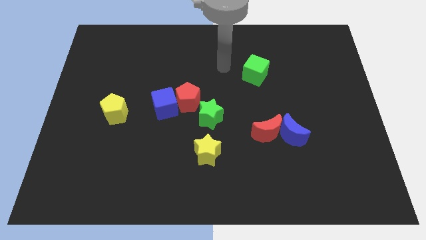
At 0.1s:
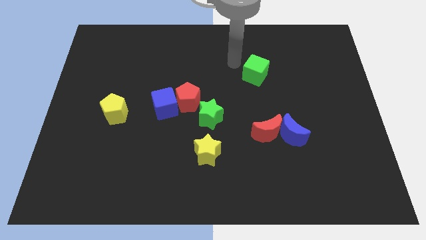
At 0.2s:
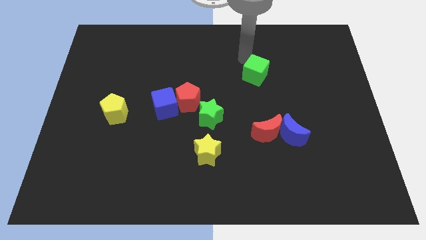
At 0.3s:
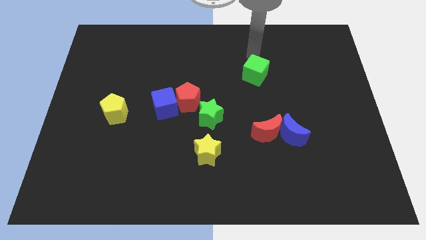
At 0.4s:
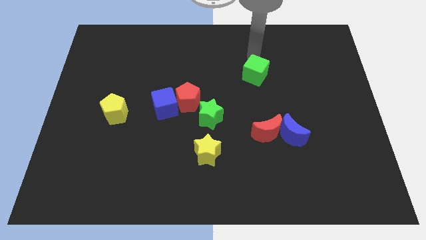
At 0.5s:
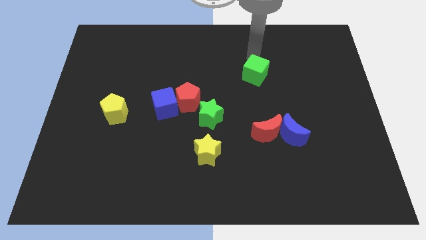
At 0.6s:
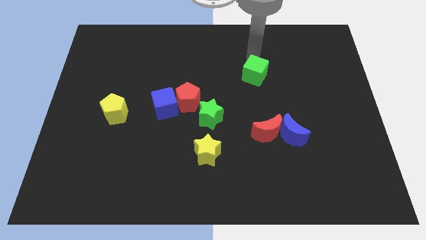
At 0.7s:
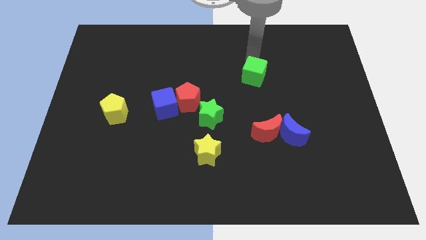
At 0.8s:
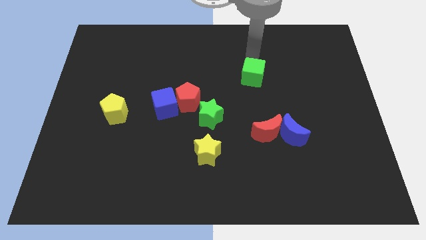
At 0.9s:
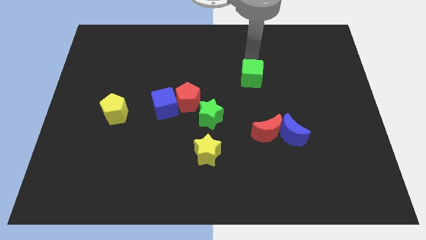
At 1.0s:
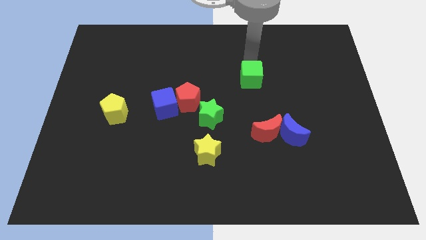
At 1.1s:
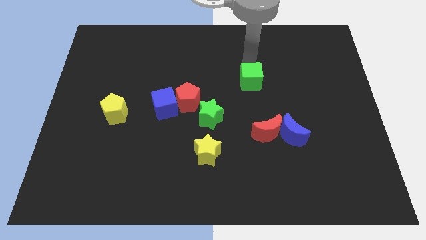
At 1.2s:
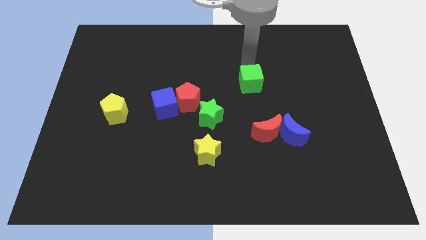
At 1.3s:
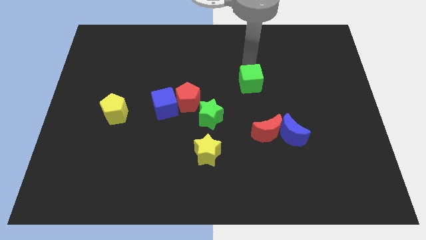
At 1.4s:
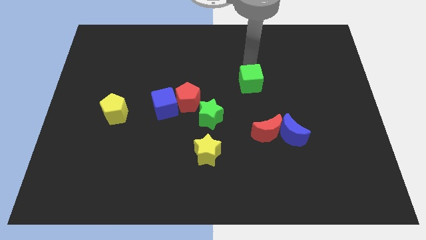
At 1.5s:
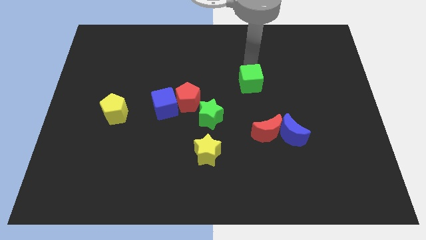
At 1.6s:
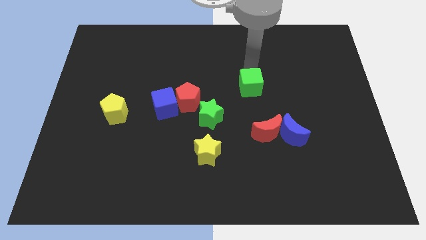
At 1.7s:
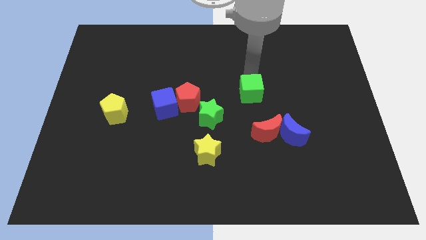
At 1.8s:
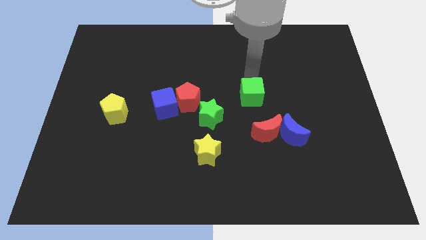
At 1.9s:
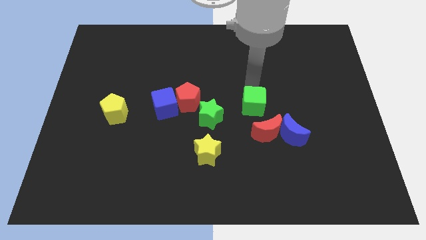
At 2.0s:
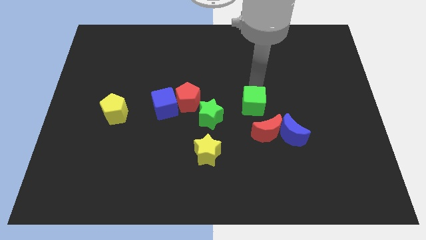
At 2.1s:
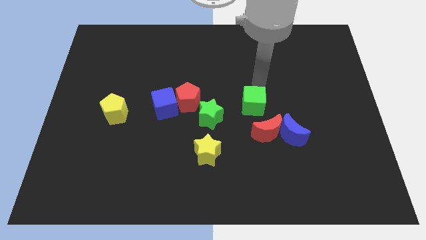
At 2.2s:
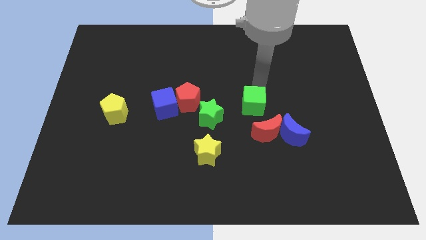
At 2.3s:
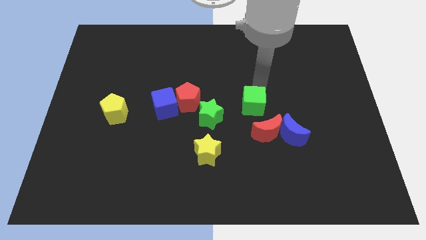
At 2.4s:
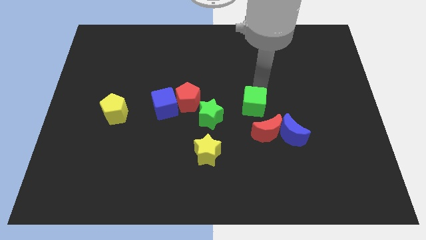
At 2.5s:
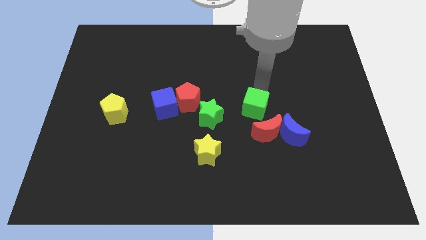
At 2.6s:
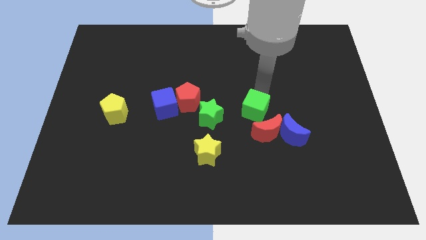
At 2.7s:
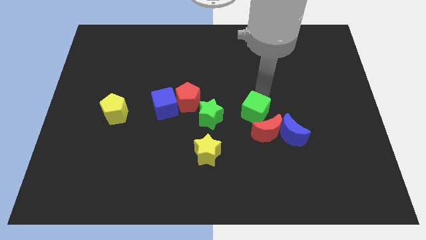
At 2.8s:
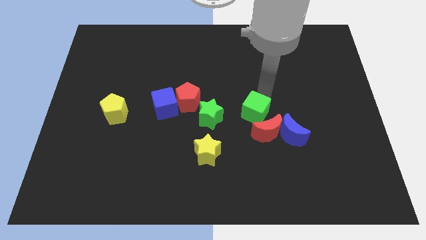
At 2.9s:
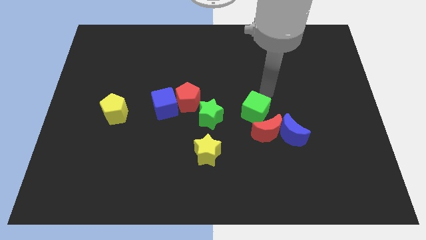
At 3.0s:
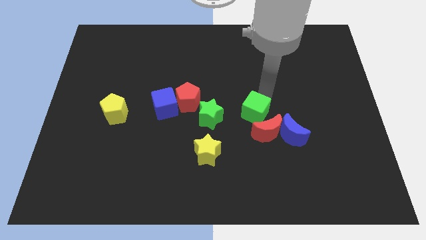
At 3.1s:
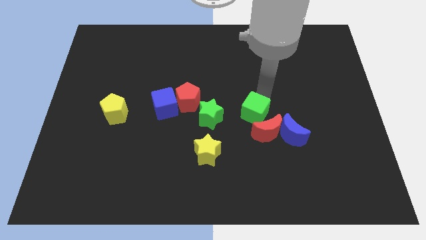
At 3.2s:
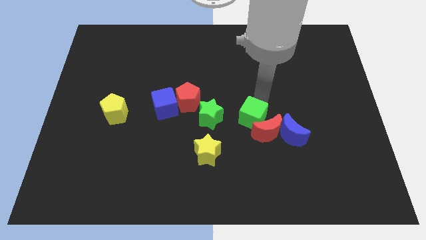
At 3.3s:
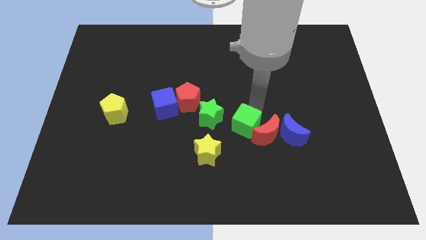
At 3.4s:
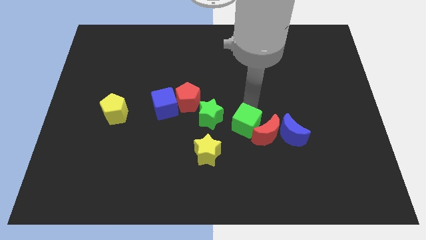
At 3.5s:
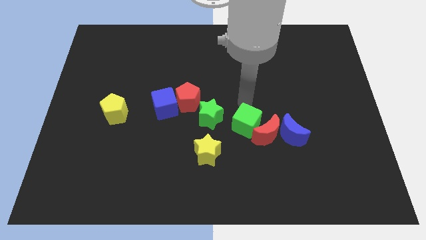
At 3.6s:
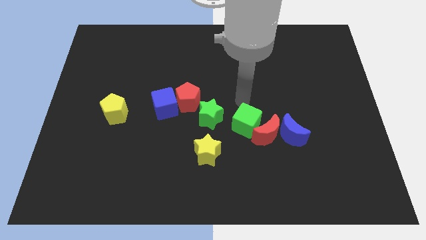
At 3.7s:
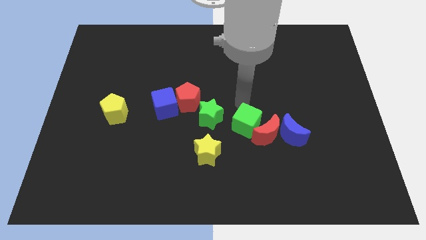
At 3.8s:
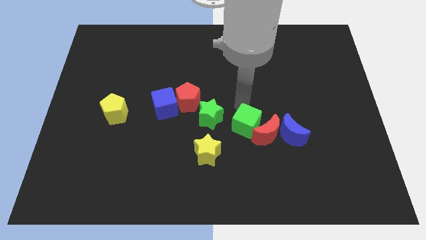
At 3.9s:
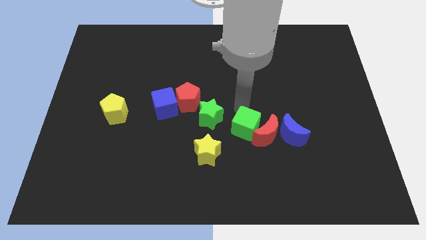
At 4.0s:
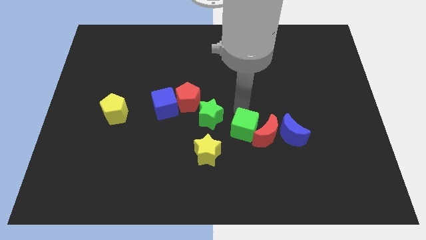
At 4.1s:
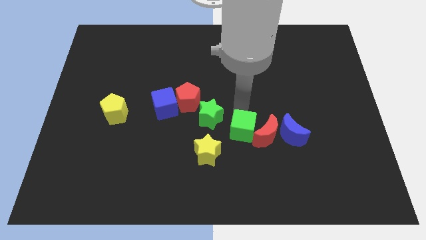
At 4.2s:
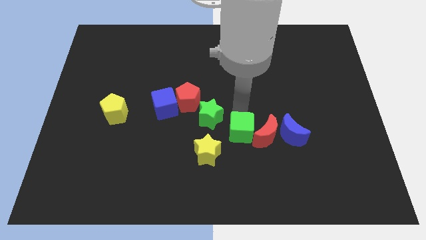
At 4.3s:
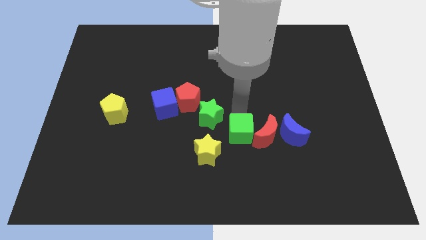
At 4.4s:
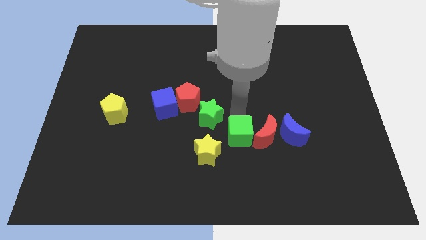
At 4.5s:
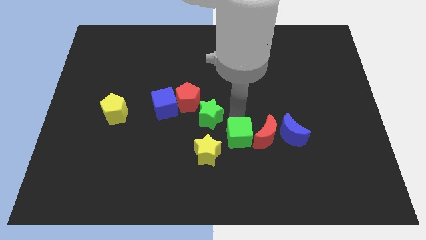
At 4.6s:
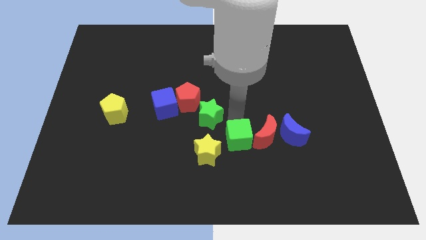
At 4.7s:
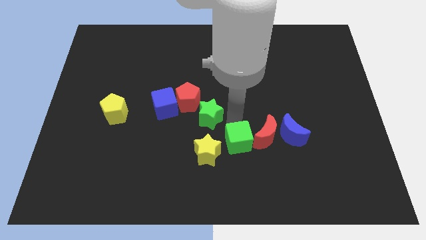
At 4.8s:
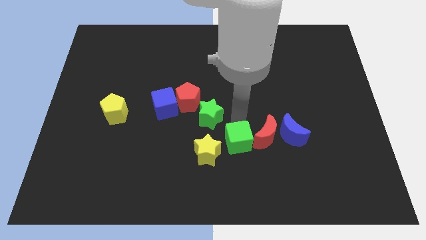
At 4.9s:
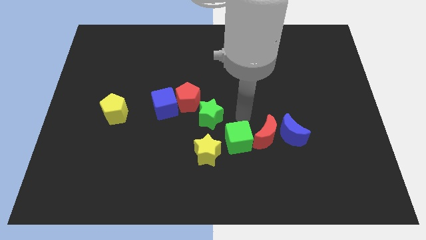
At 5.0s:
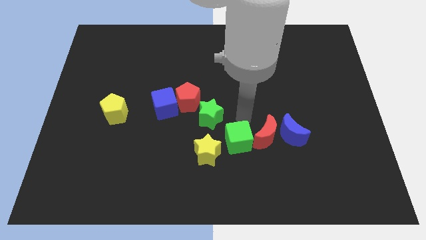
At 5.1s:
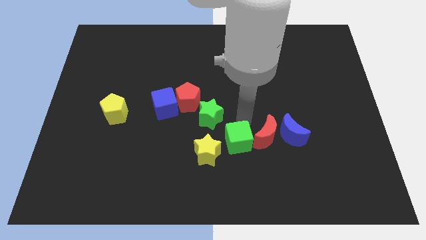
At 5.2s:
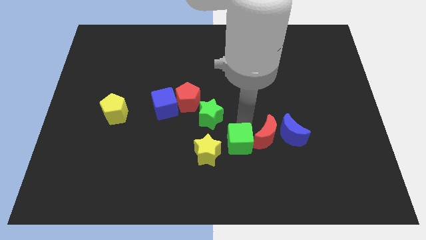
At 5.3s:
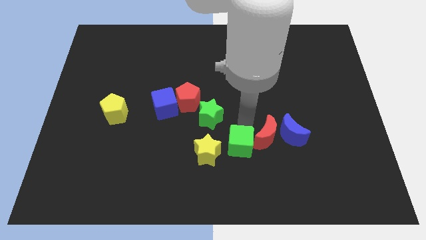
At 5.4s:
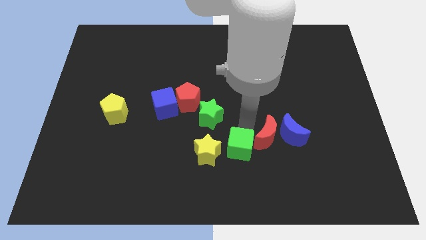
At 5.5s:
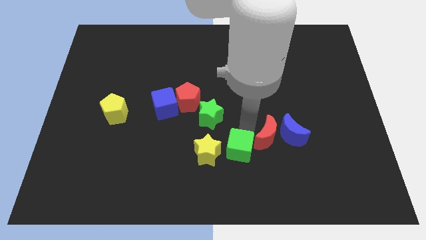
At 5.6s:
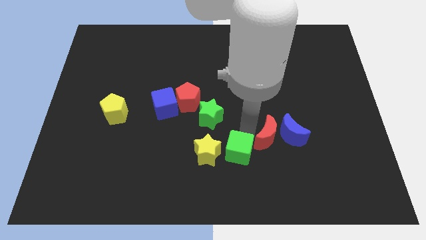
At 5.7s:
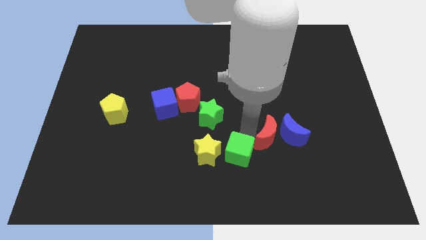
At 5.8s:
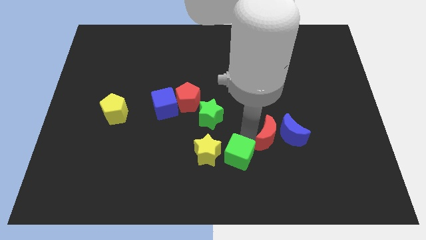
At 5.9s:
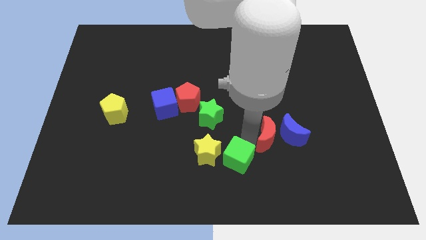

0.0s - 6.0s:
slide the green cube to the bottom side

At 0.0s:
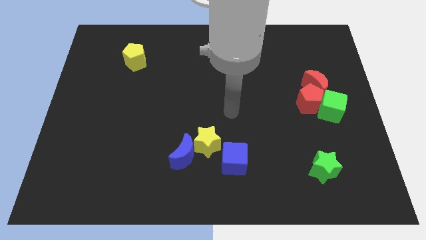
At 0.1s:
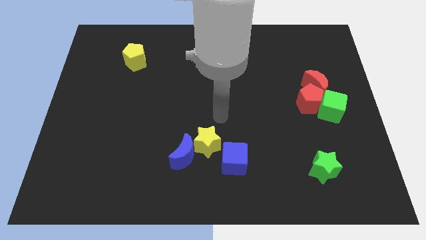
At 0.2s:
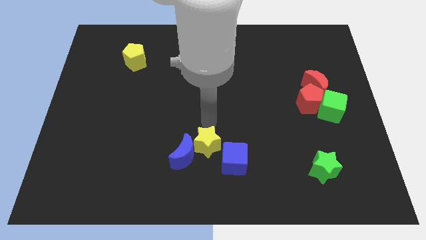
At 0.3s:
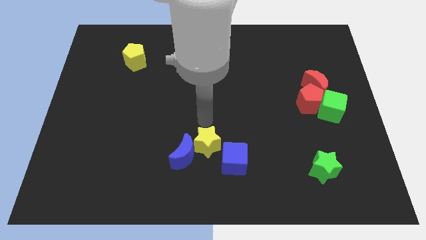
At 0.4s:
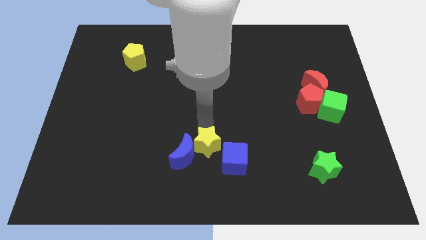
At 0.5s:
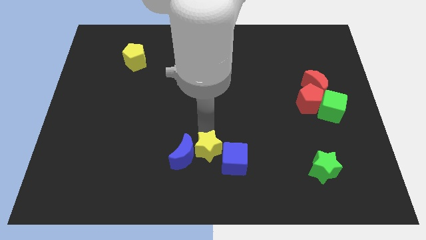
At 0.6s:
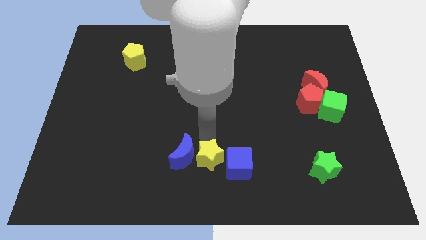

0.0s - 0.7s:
slide the yellow star to the bottom
